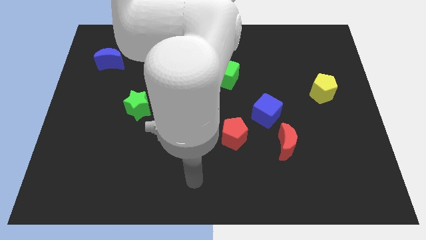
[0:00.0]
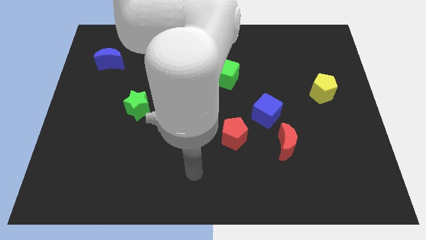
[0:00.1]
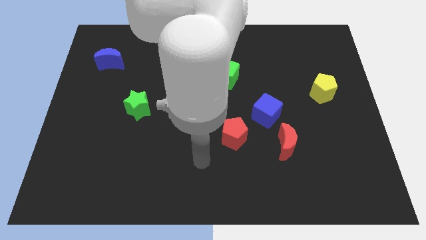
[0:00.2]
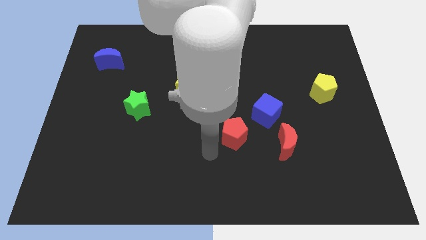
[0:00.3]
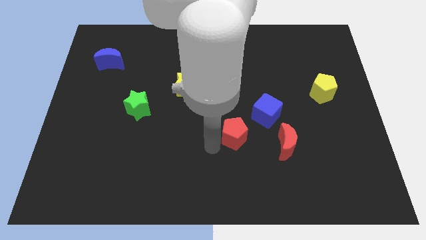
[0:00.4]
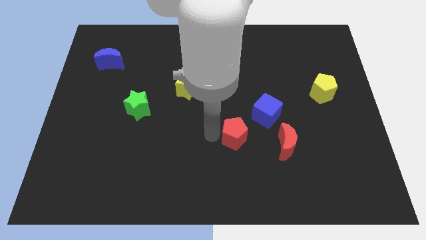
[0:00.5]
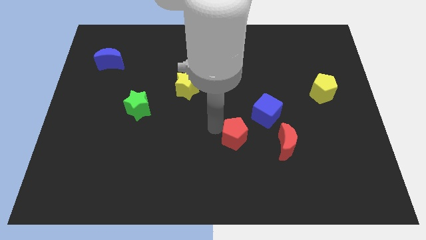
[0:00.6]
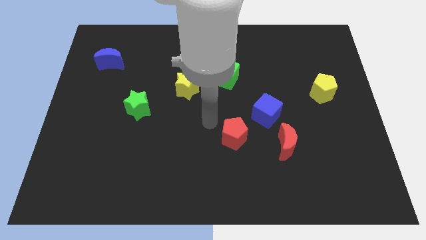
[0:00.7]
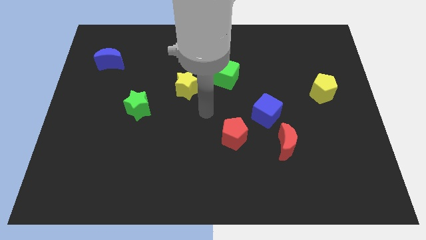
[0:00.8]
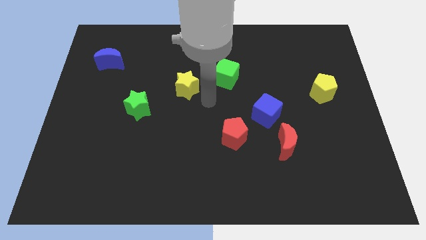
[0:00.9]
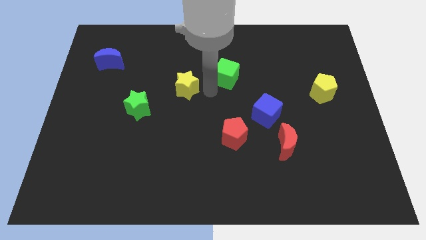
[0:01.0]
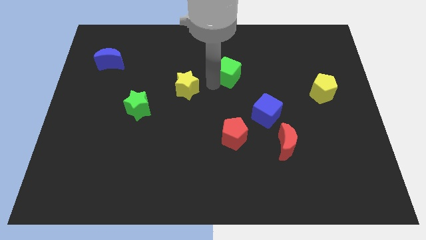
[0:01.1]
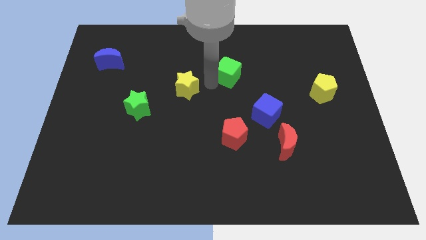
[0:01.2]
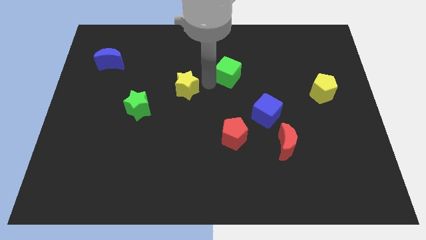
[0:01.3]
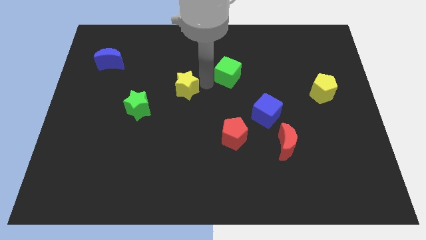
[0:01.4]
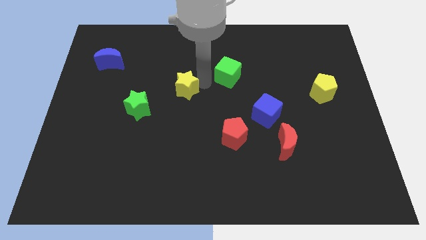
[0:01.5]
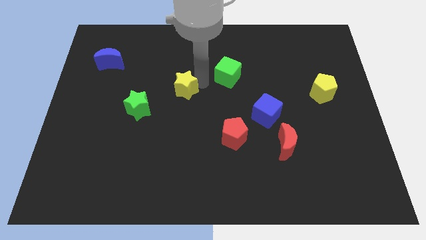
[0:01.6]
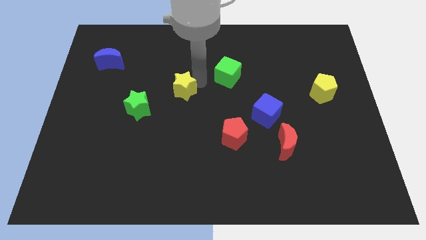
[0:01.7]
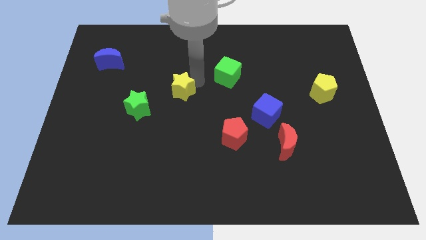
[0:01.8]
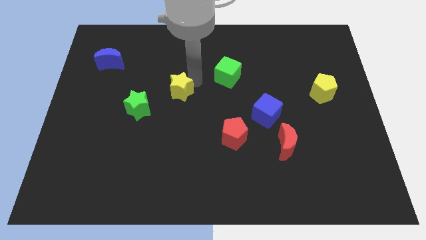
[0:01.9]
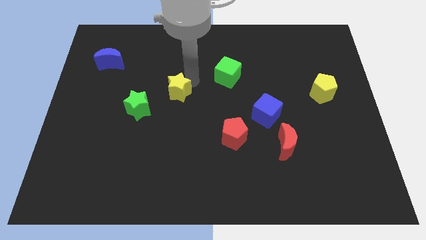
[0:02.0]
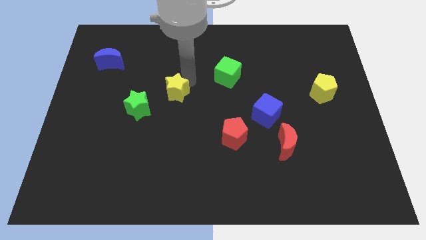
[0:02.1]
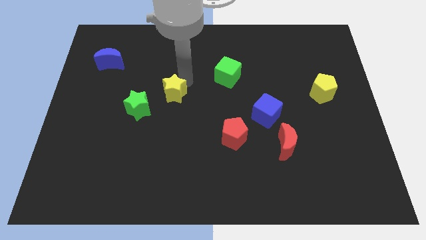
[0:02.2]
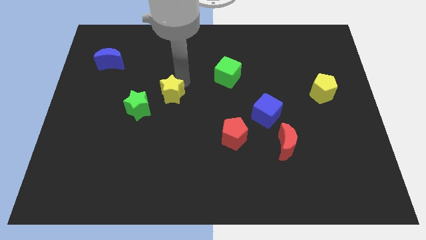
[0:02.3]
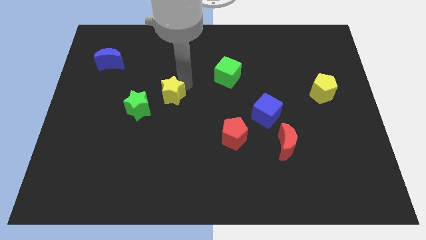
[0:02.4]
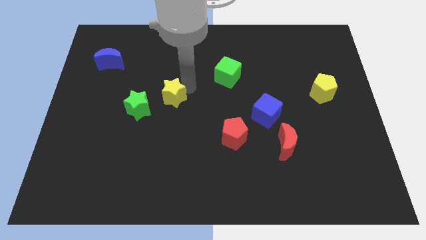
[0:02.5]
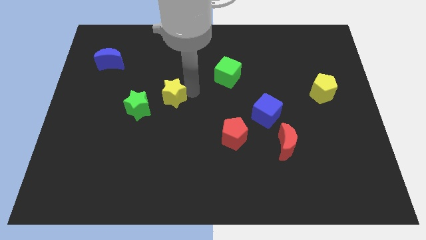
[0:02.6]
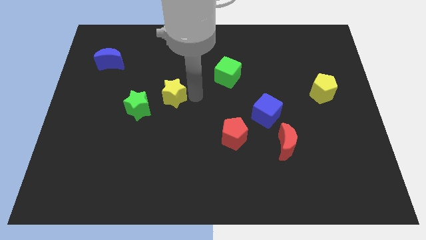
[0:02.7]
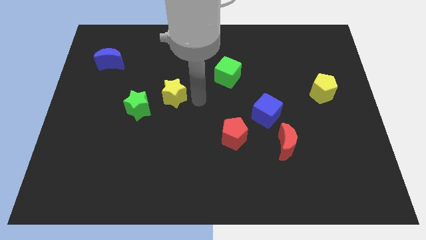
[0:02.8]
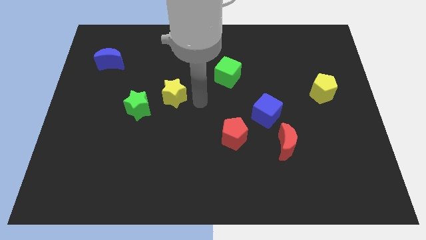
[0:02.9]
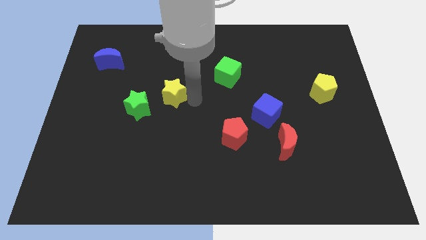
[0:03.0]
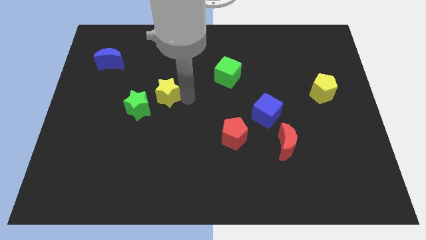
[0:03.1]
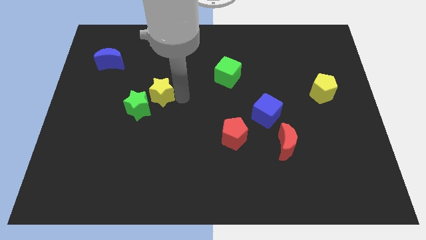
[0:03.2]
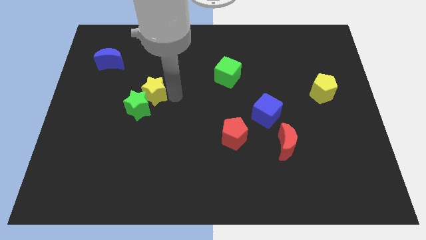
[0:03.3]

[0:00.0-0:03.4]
slightly move the yellow star to the left

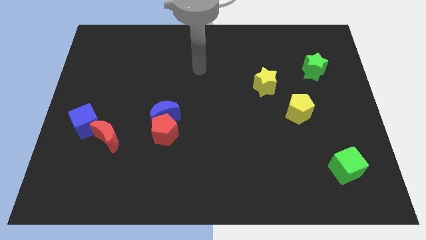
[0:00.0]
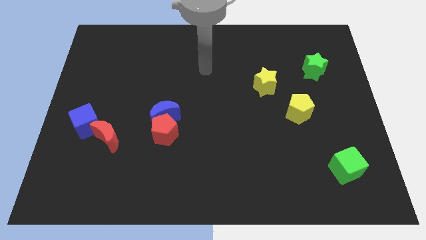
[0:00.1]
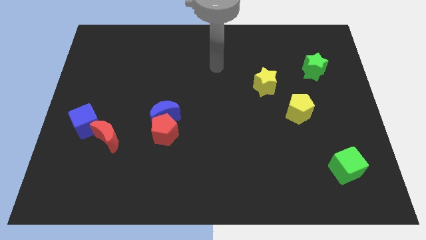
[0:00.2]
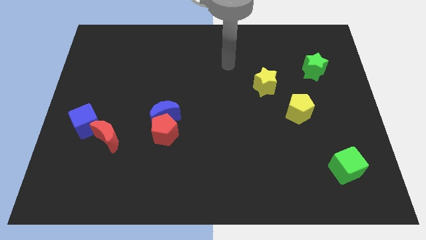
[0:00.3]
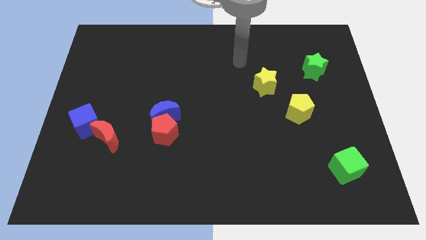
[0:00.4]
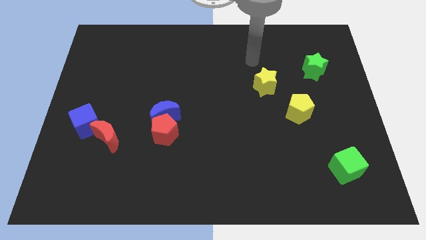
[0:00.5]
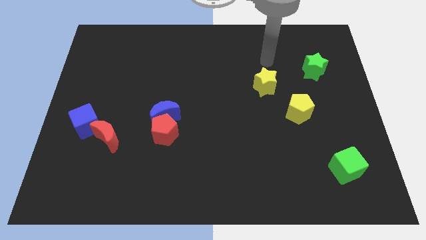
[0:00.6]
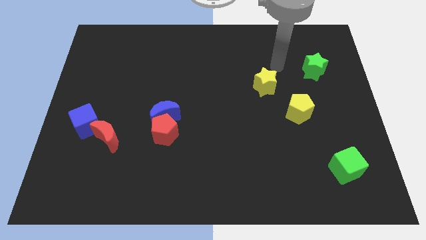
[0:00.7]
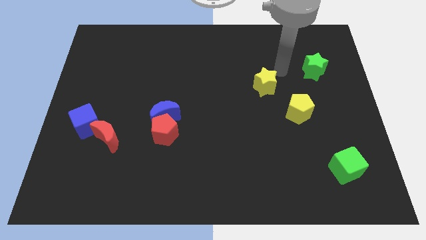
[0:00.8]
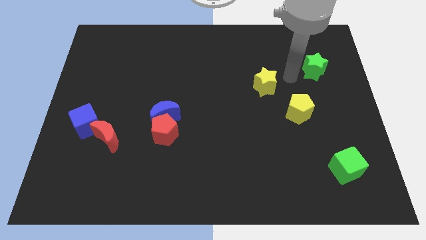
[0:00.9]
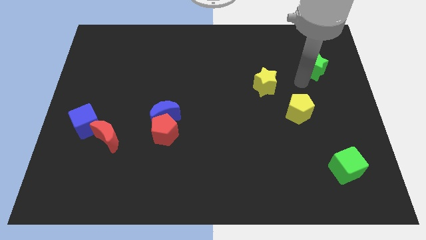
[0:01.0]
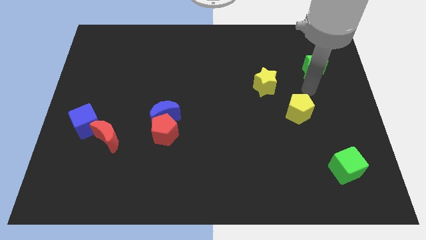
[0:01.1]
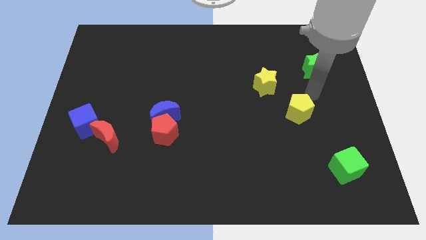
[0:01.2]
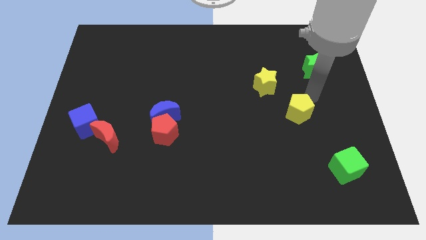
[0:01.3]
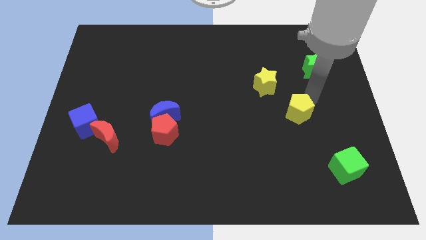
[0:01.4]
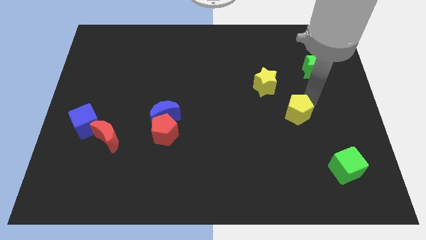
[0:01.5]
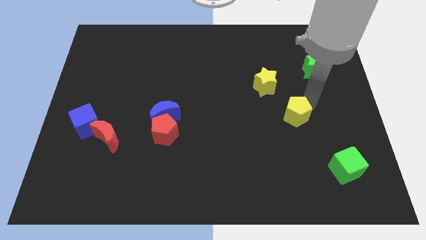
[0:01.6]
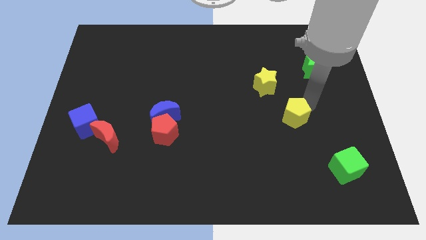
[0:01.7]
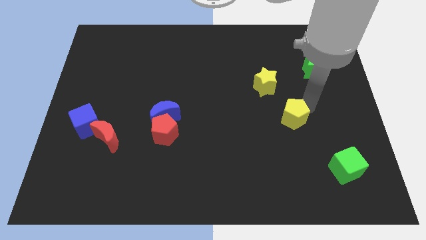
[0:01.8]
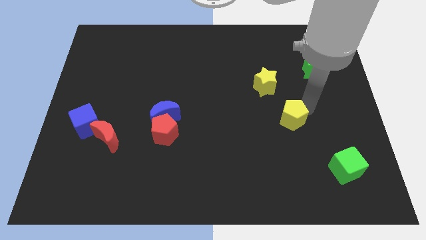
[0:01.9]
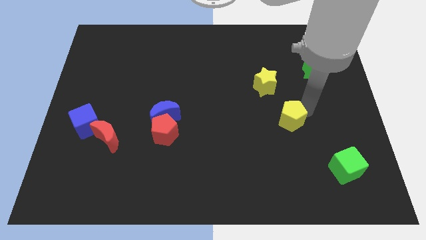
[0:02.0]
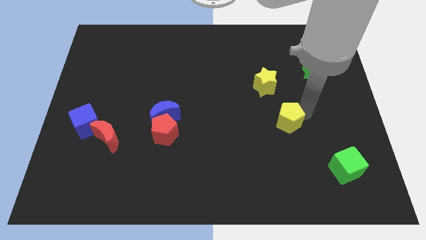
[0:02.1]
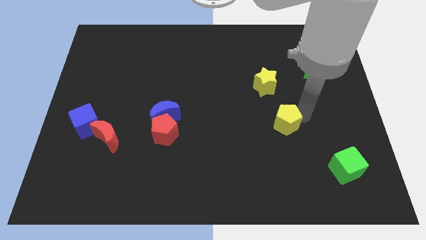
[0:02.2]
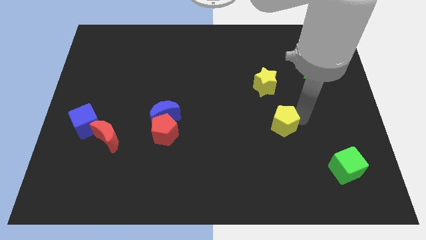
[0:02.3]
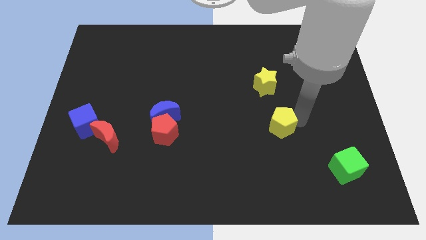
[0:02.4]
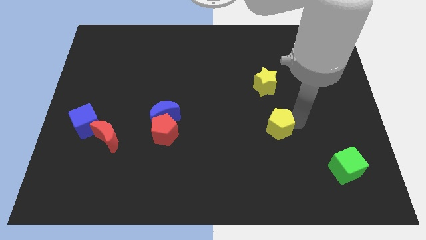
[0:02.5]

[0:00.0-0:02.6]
slide the yellow pentagon a bit diagonally downwards and to the left

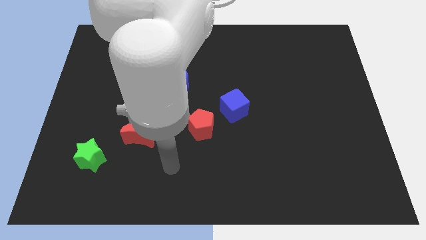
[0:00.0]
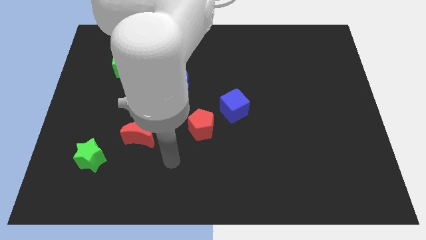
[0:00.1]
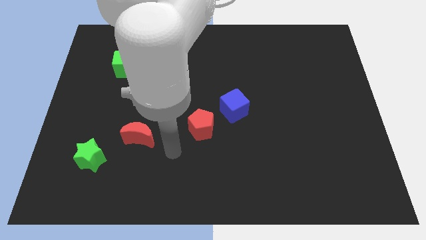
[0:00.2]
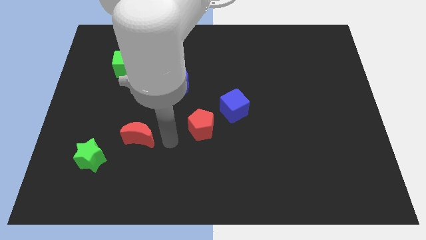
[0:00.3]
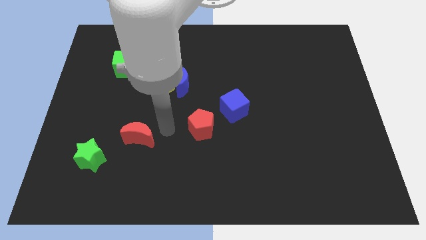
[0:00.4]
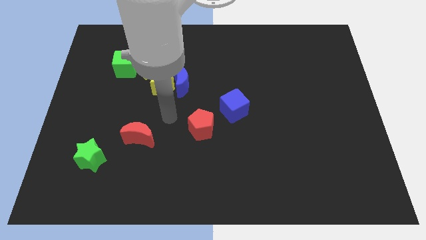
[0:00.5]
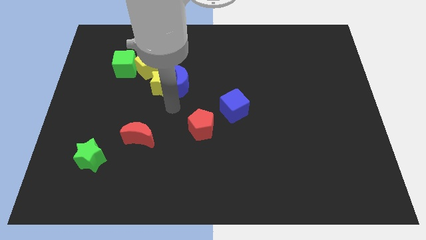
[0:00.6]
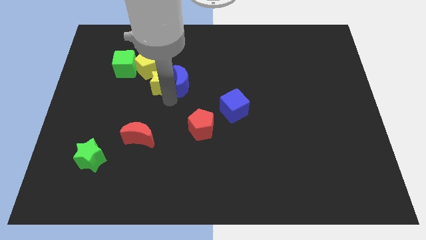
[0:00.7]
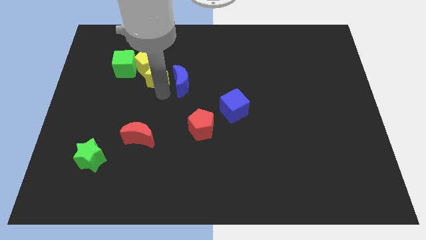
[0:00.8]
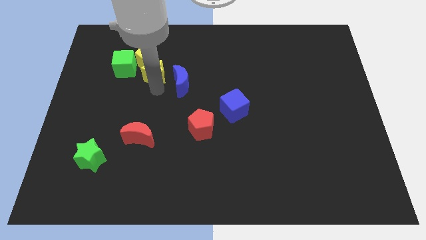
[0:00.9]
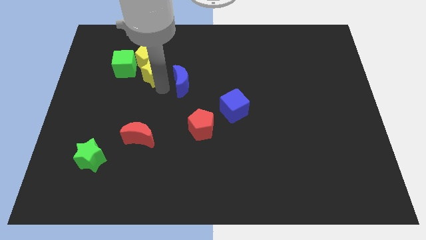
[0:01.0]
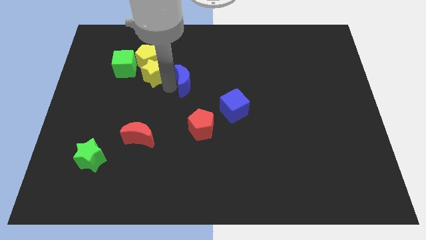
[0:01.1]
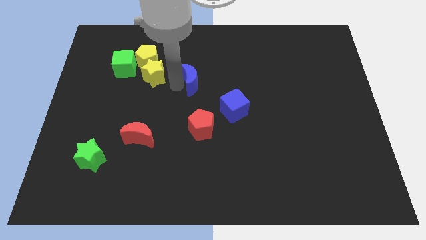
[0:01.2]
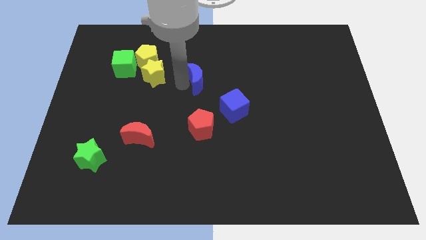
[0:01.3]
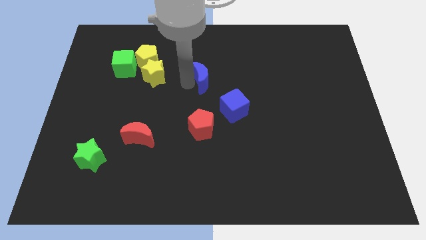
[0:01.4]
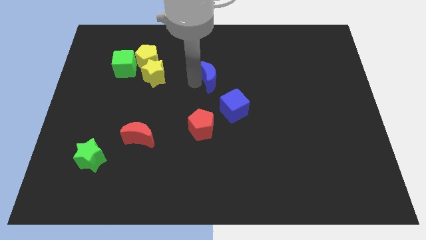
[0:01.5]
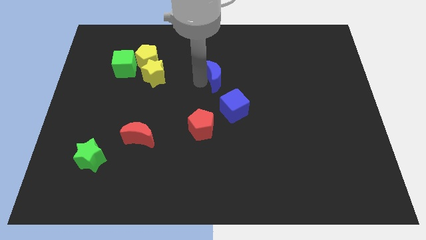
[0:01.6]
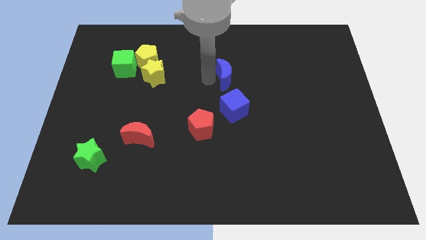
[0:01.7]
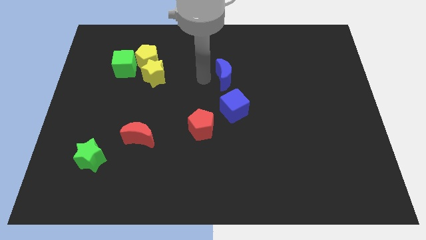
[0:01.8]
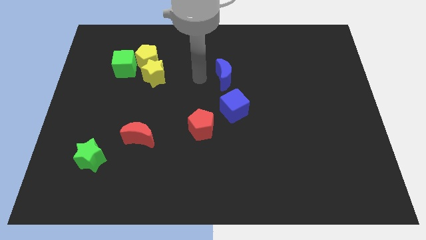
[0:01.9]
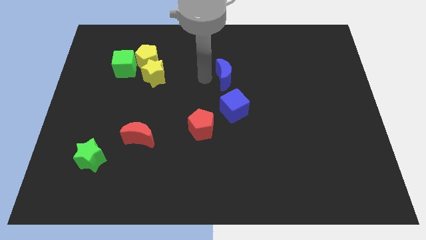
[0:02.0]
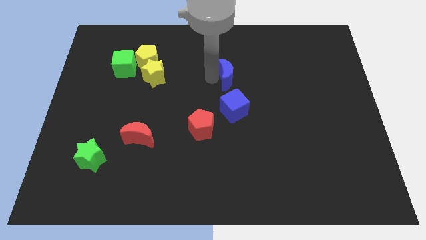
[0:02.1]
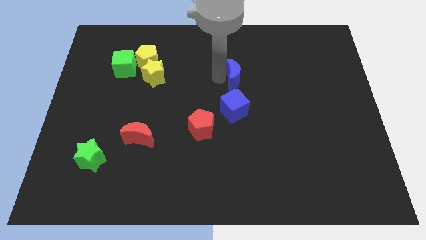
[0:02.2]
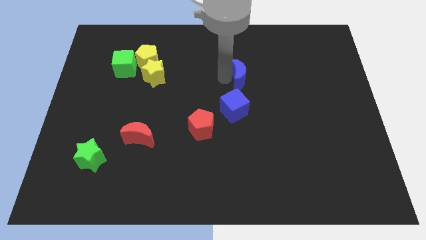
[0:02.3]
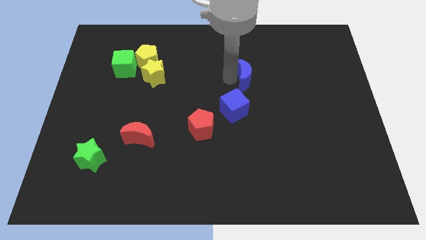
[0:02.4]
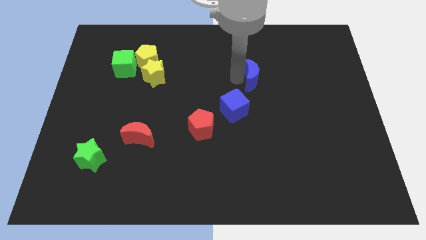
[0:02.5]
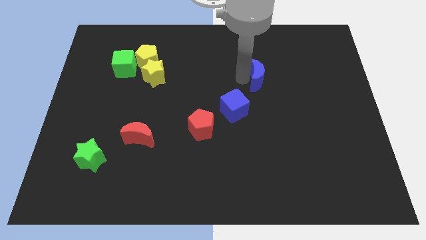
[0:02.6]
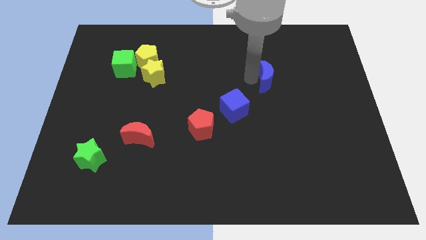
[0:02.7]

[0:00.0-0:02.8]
move the blue moon right
